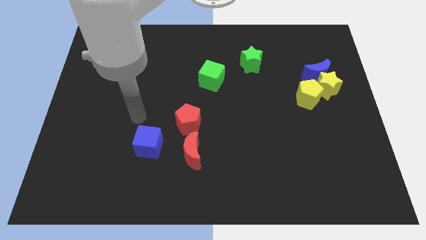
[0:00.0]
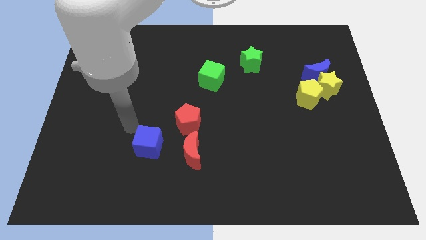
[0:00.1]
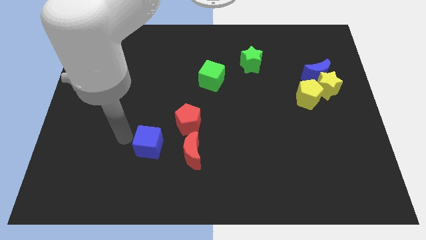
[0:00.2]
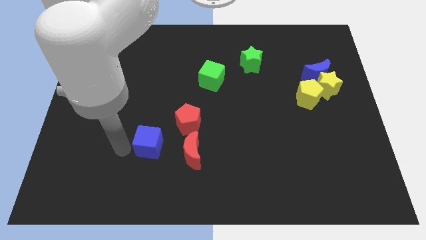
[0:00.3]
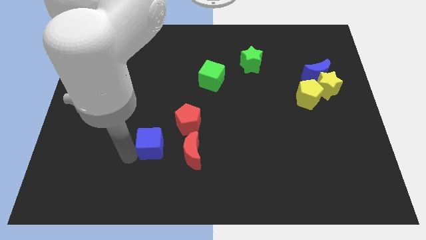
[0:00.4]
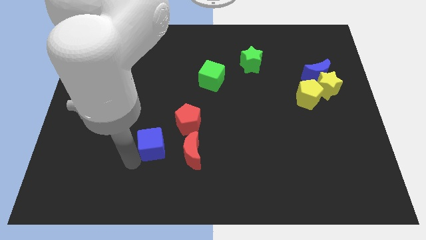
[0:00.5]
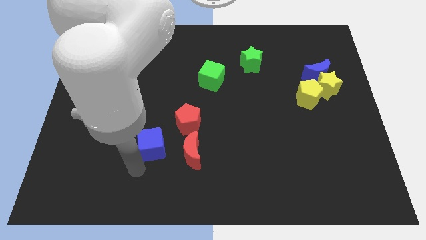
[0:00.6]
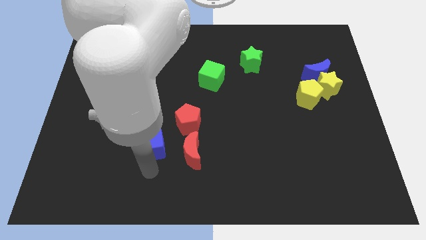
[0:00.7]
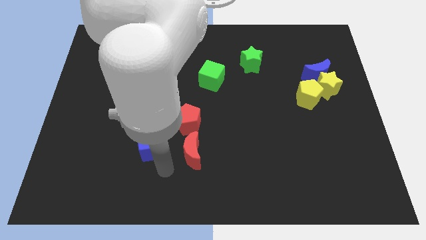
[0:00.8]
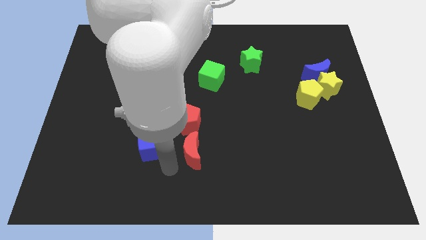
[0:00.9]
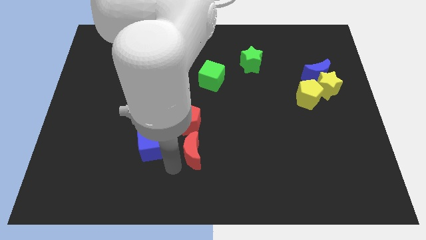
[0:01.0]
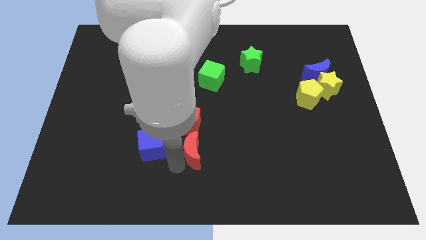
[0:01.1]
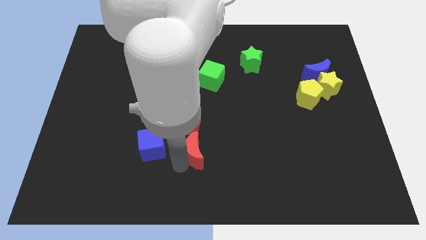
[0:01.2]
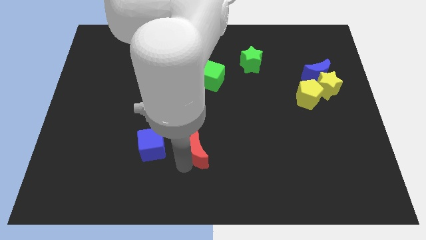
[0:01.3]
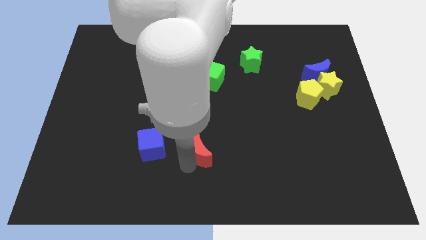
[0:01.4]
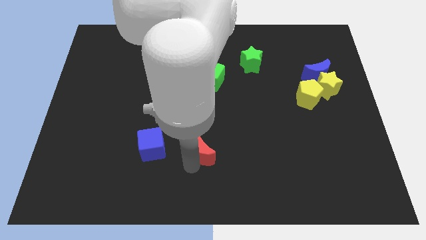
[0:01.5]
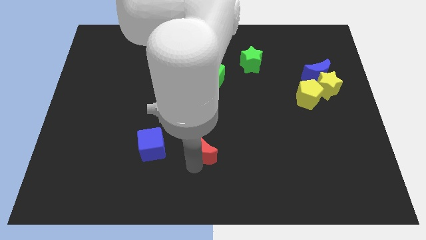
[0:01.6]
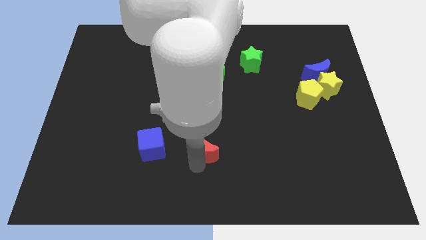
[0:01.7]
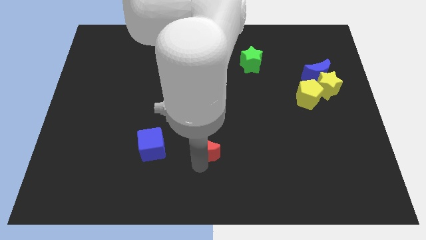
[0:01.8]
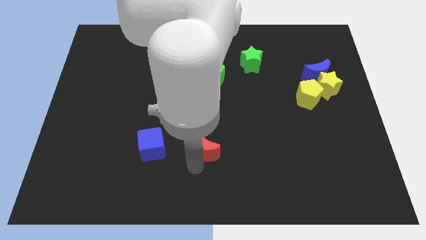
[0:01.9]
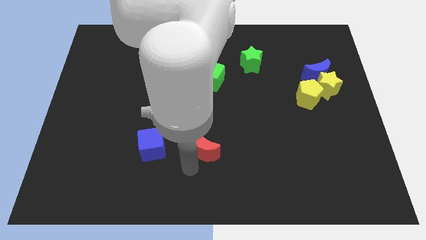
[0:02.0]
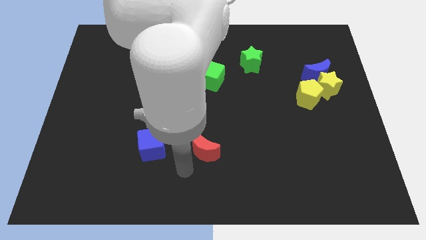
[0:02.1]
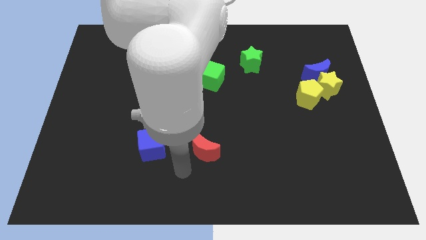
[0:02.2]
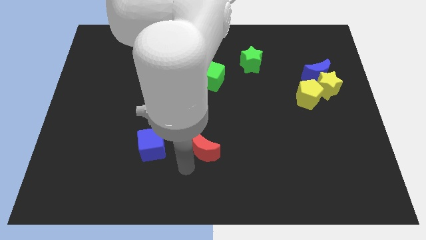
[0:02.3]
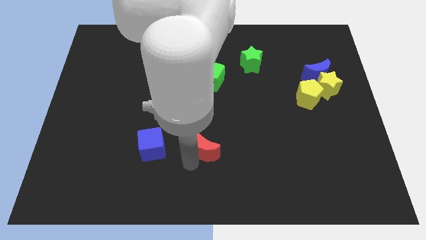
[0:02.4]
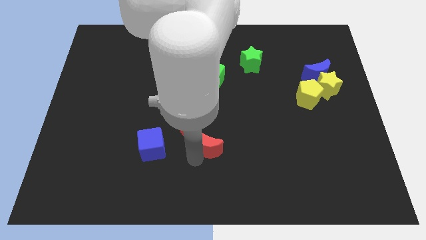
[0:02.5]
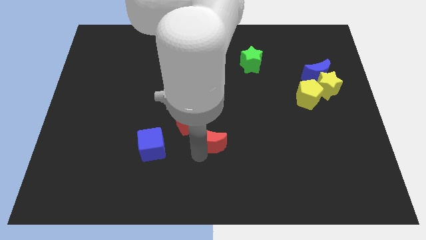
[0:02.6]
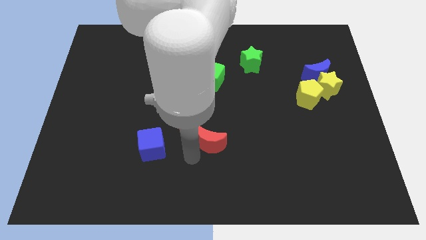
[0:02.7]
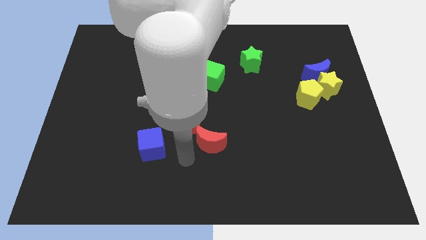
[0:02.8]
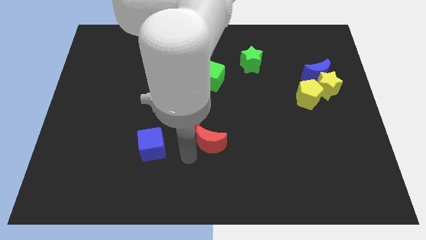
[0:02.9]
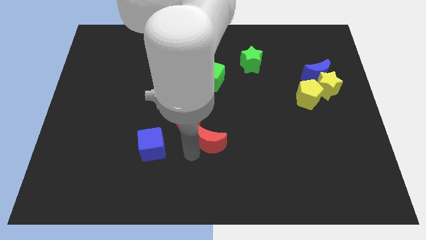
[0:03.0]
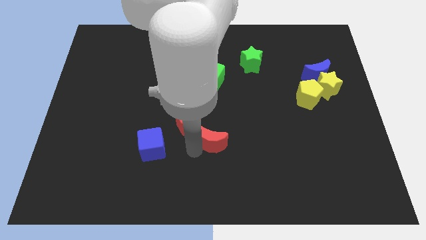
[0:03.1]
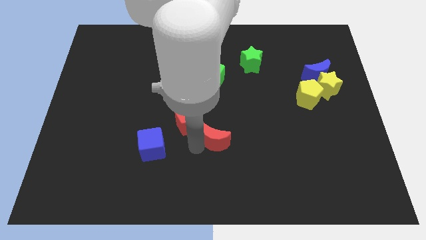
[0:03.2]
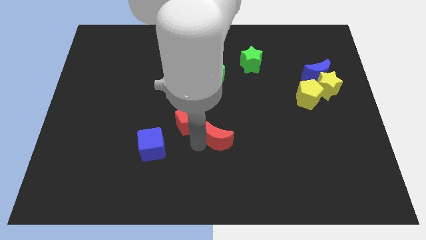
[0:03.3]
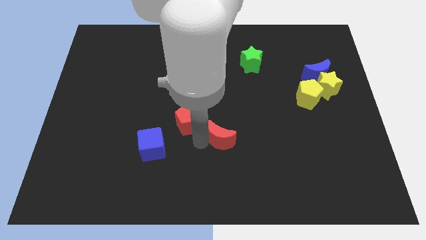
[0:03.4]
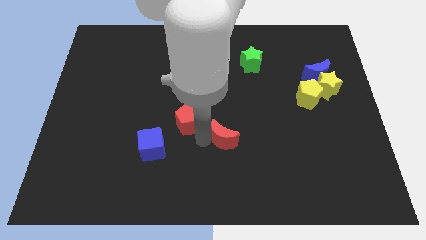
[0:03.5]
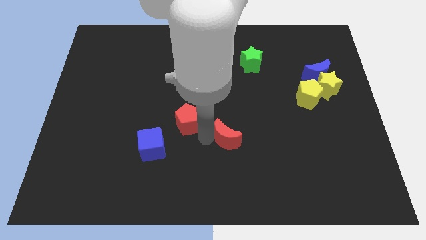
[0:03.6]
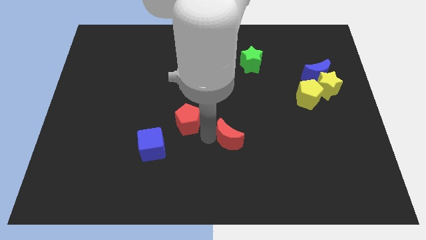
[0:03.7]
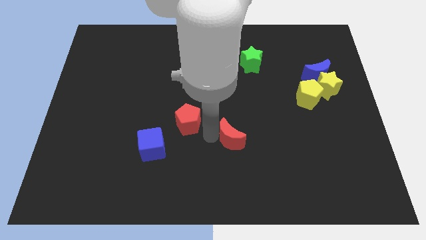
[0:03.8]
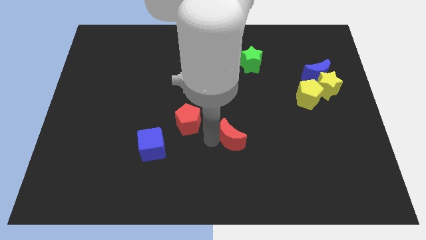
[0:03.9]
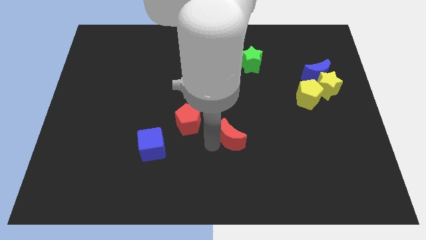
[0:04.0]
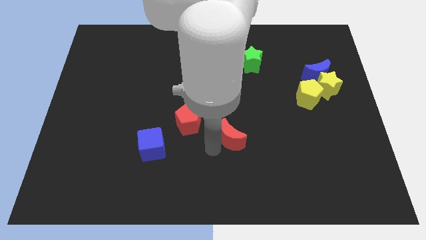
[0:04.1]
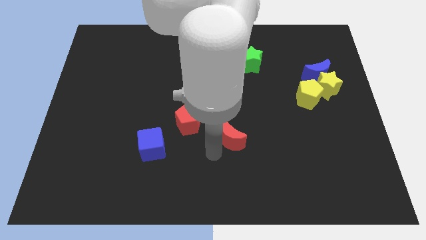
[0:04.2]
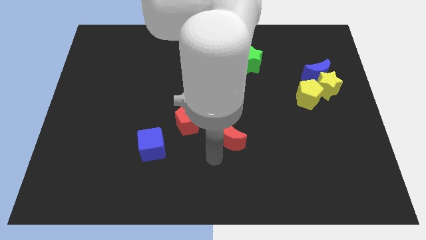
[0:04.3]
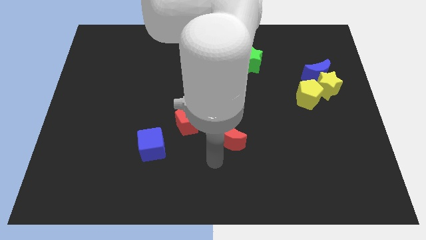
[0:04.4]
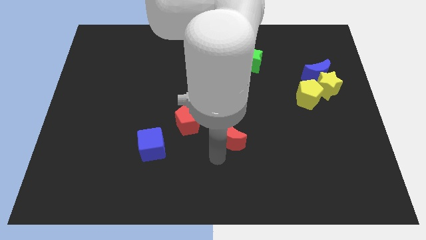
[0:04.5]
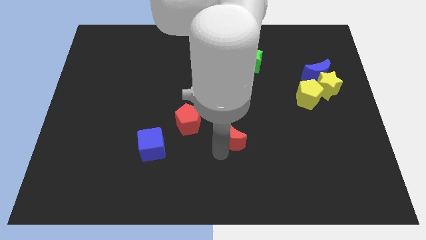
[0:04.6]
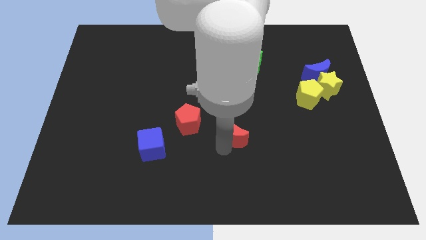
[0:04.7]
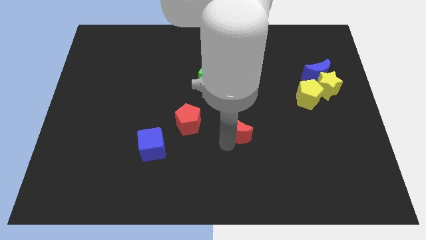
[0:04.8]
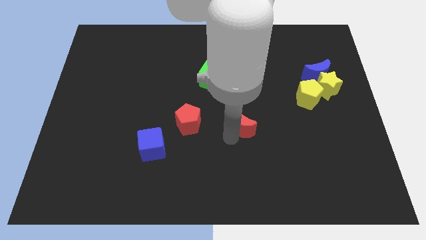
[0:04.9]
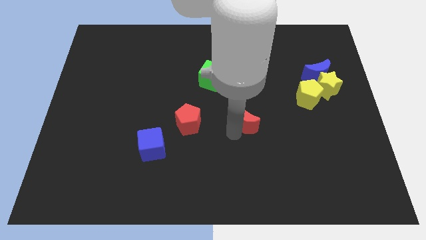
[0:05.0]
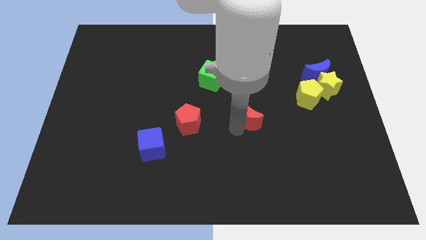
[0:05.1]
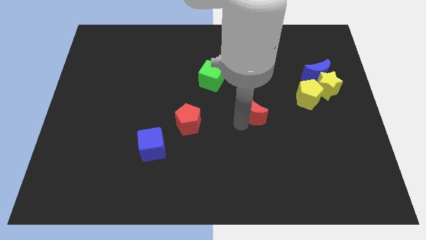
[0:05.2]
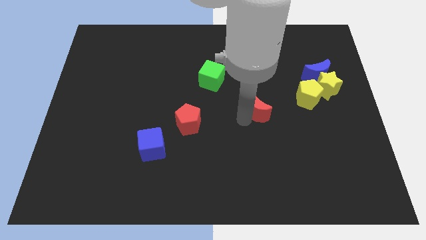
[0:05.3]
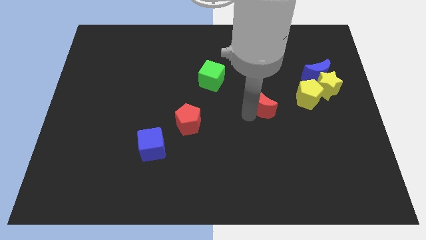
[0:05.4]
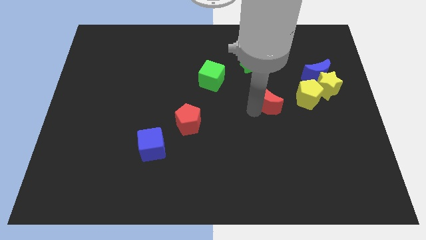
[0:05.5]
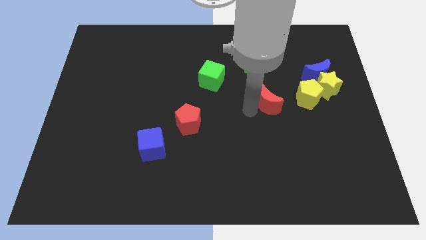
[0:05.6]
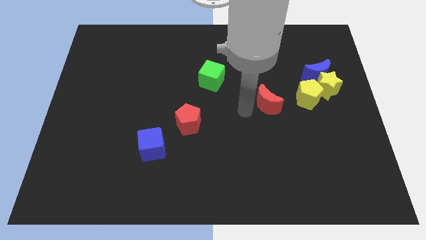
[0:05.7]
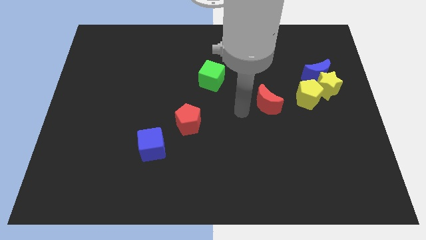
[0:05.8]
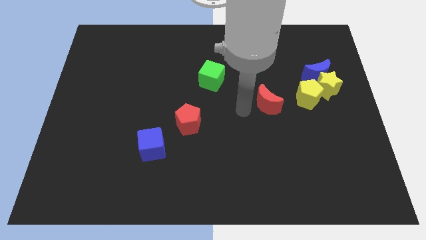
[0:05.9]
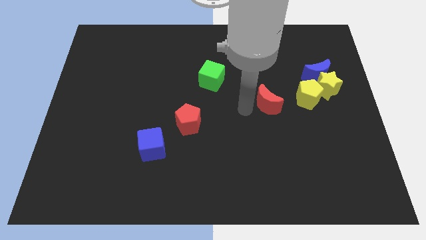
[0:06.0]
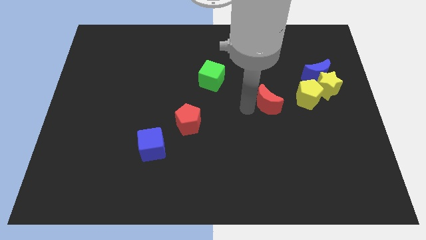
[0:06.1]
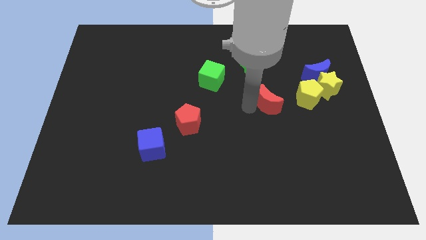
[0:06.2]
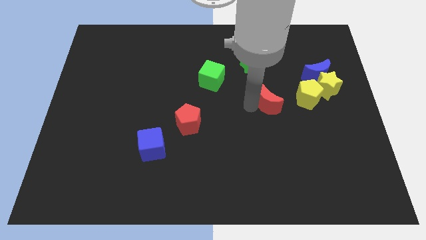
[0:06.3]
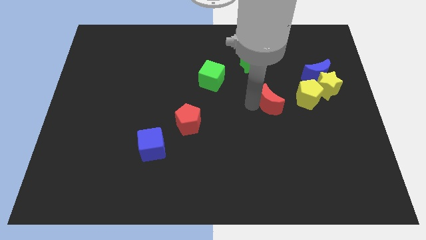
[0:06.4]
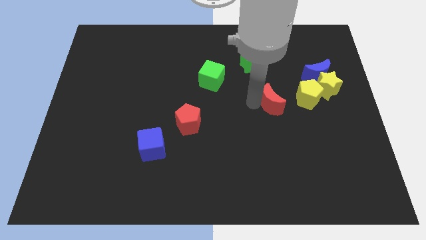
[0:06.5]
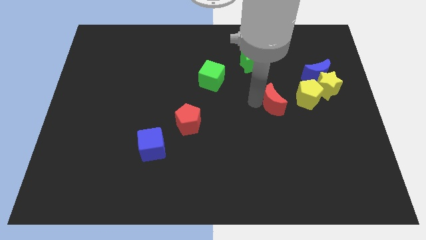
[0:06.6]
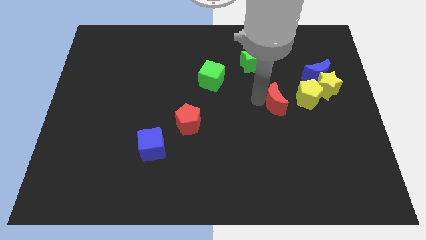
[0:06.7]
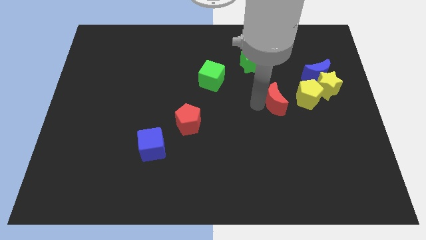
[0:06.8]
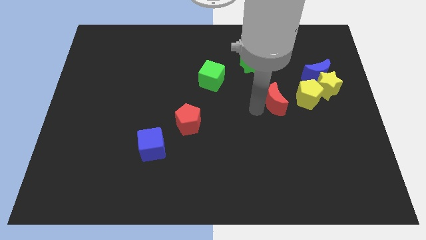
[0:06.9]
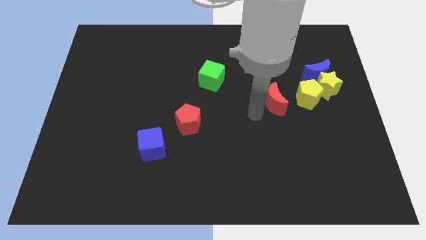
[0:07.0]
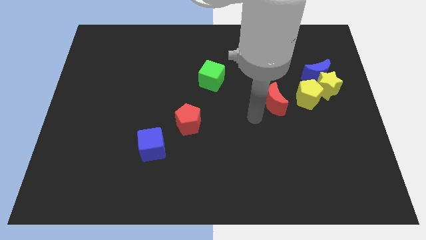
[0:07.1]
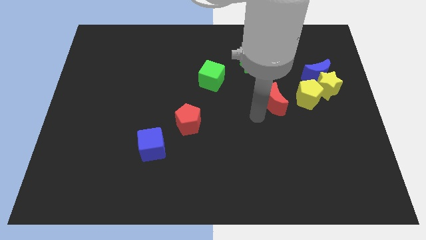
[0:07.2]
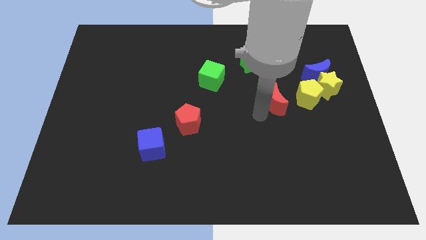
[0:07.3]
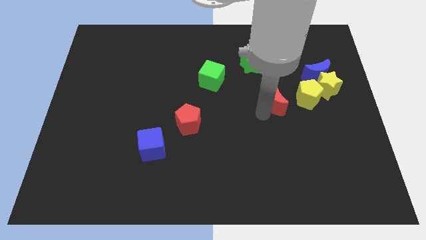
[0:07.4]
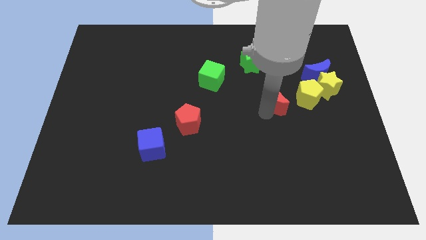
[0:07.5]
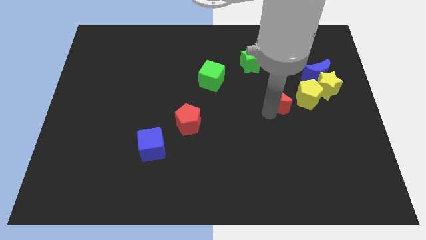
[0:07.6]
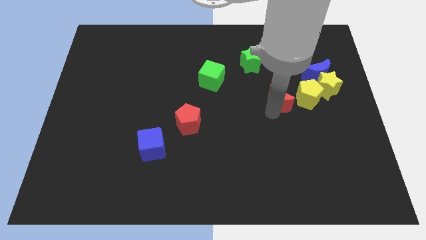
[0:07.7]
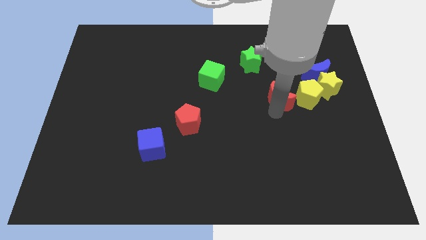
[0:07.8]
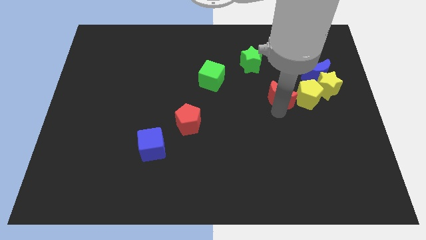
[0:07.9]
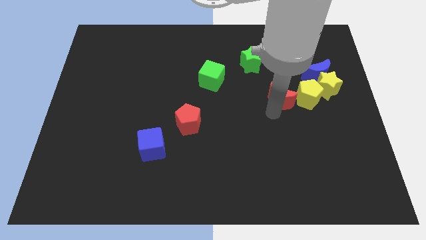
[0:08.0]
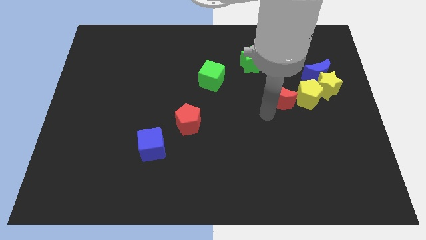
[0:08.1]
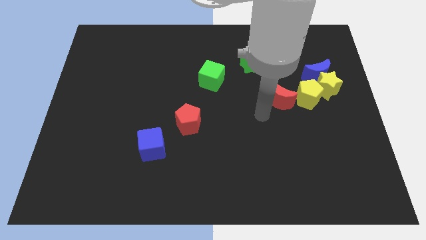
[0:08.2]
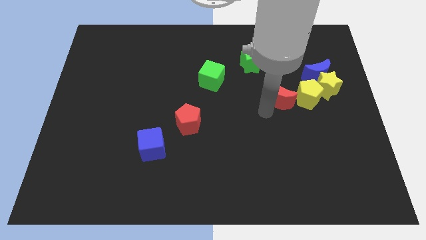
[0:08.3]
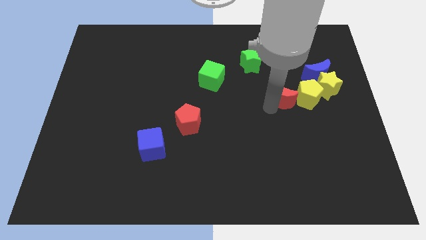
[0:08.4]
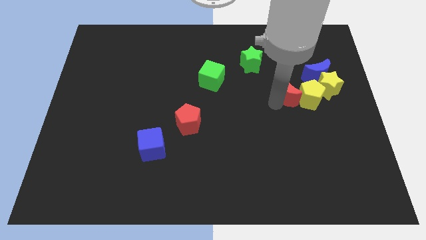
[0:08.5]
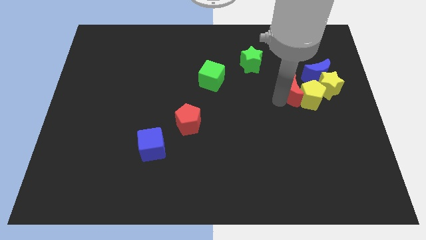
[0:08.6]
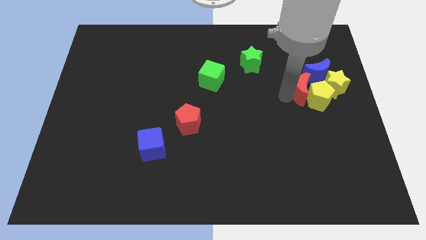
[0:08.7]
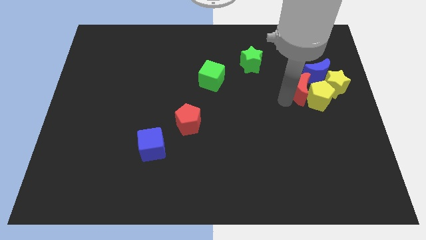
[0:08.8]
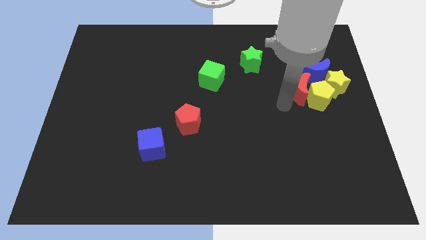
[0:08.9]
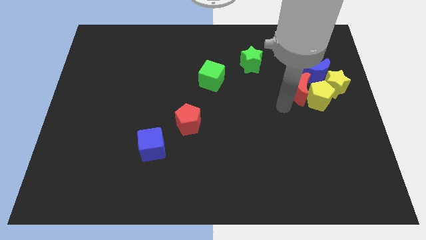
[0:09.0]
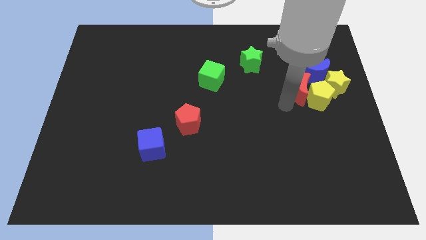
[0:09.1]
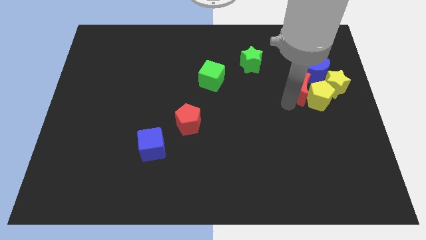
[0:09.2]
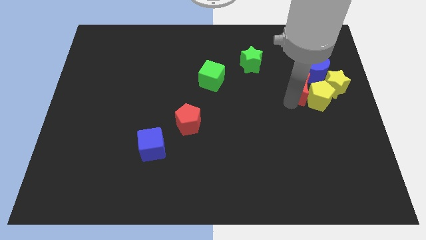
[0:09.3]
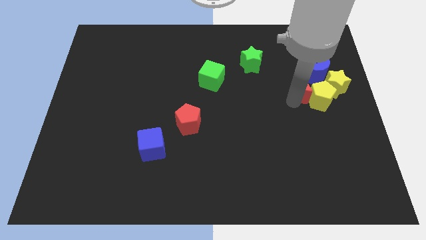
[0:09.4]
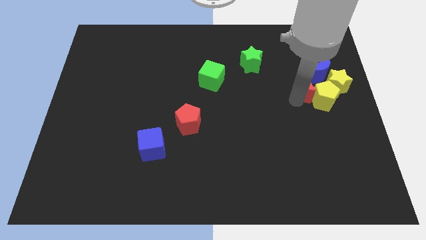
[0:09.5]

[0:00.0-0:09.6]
push the red moon next to the blue moon
